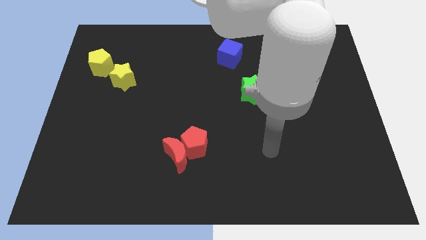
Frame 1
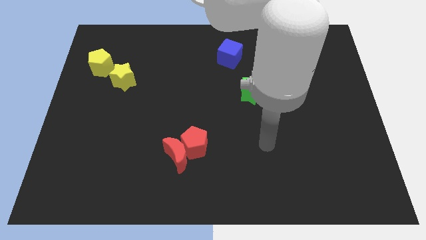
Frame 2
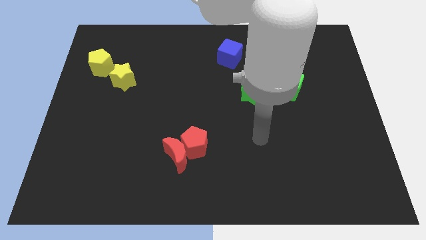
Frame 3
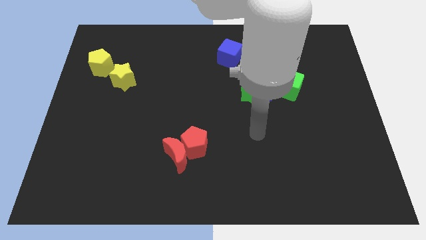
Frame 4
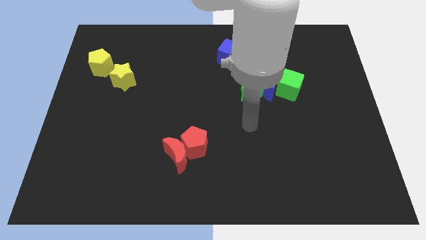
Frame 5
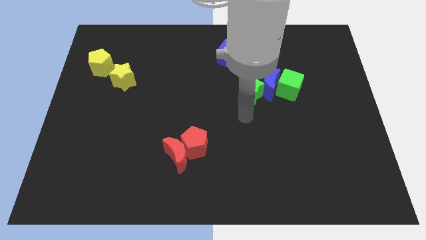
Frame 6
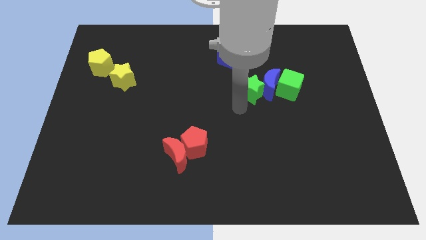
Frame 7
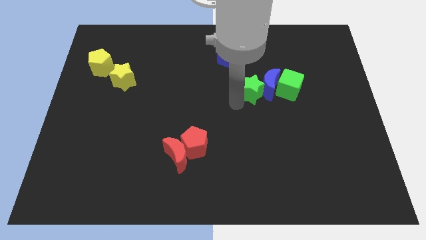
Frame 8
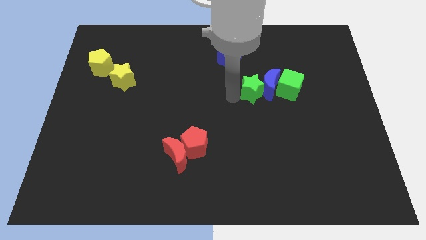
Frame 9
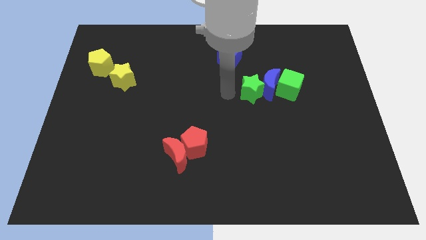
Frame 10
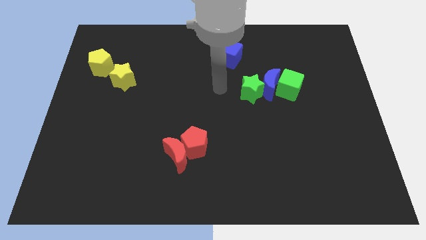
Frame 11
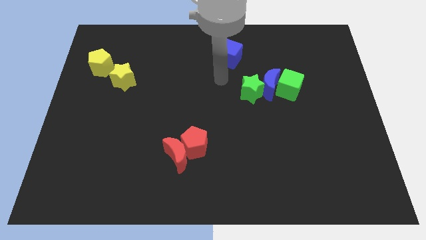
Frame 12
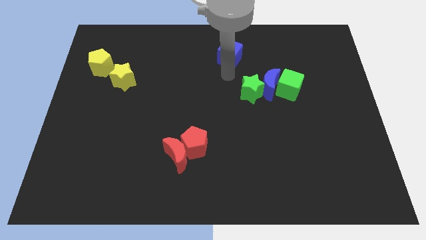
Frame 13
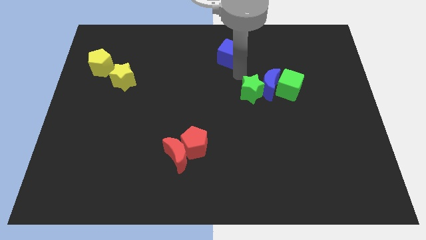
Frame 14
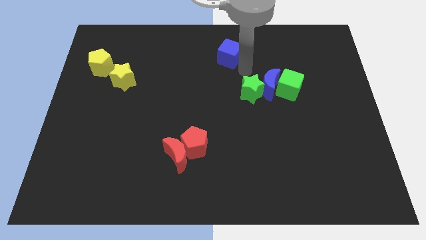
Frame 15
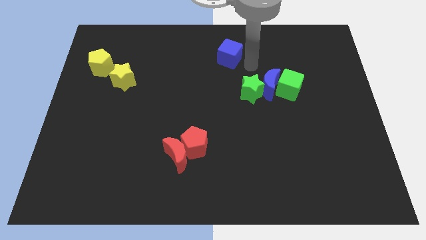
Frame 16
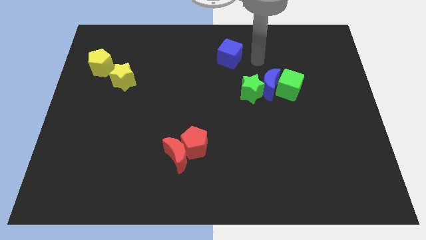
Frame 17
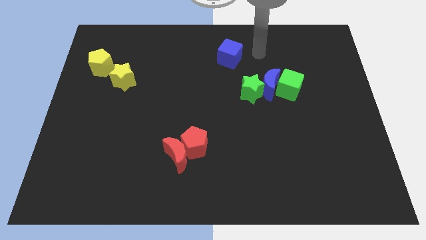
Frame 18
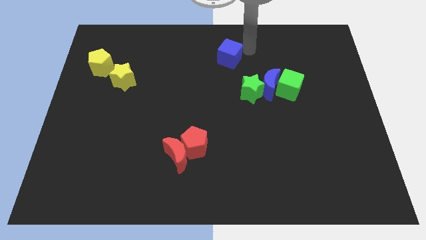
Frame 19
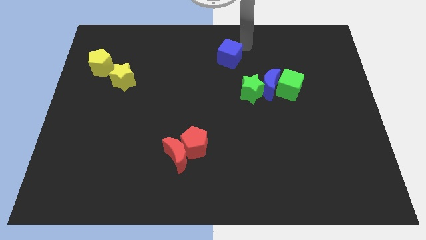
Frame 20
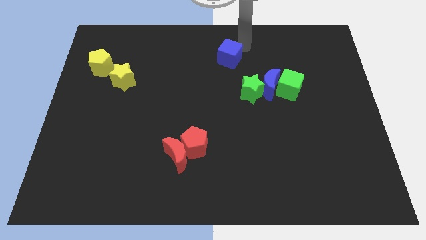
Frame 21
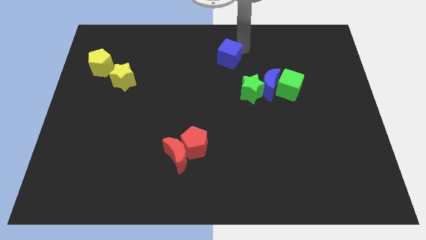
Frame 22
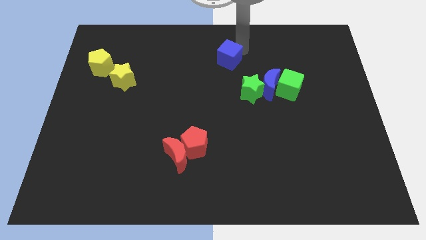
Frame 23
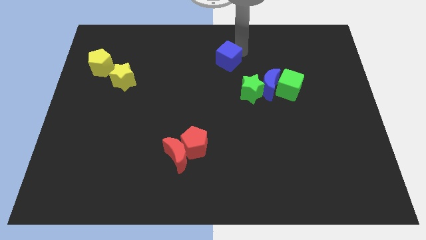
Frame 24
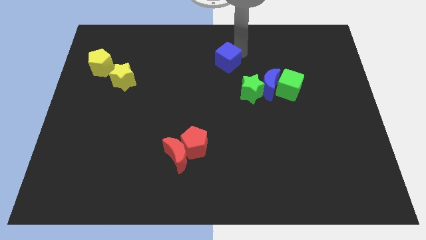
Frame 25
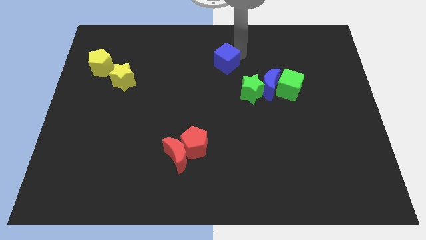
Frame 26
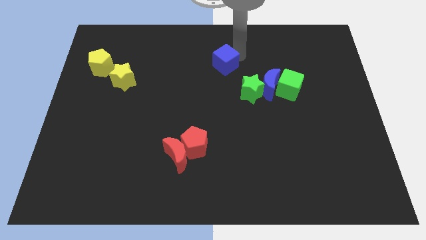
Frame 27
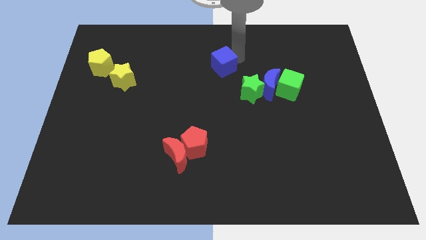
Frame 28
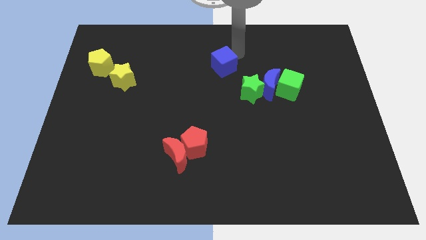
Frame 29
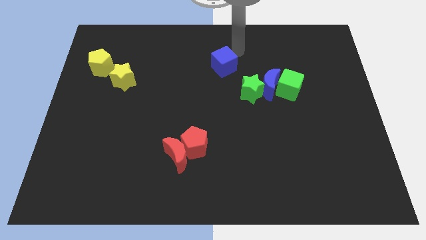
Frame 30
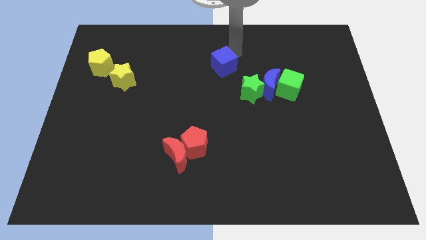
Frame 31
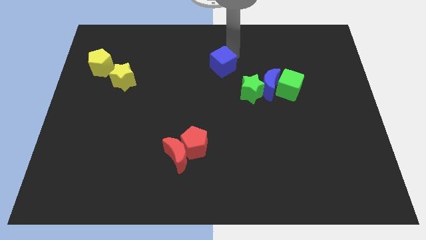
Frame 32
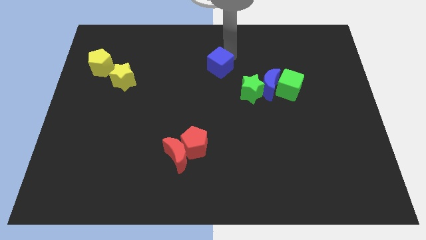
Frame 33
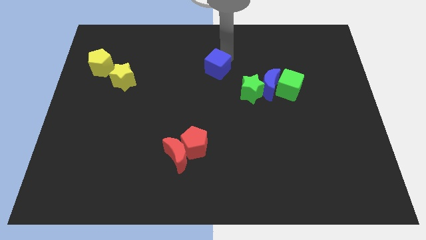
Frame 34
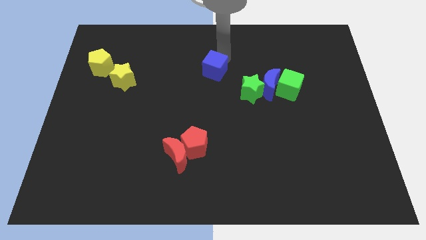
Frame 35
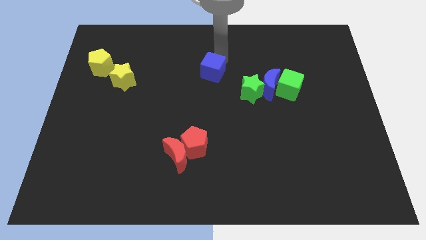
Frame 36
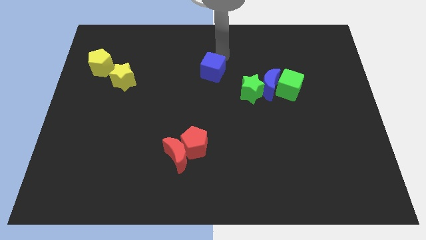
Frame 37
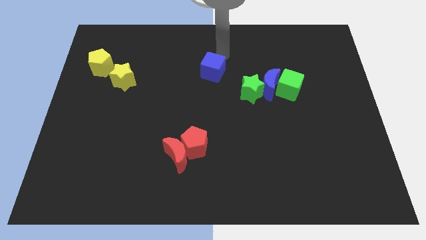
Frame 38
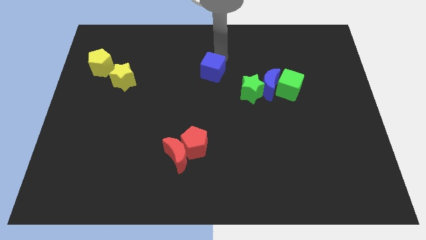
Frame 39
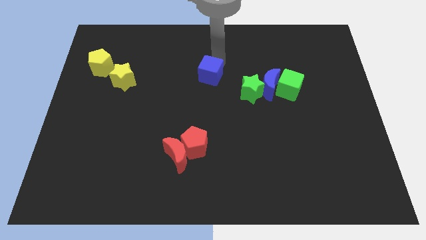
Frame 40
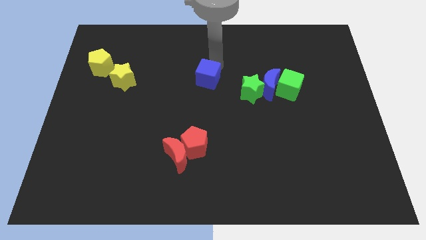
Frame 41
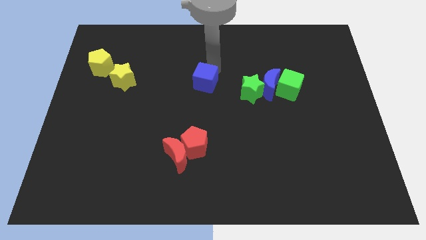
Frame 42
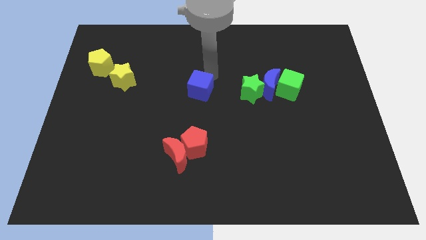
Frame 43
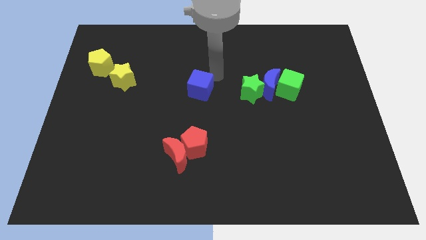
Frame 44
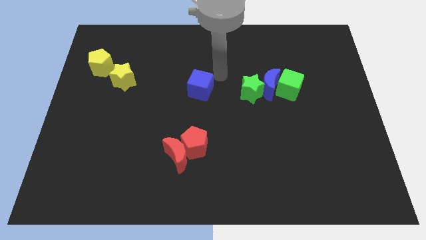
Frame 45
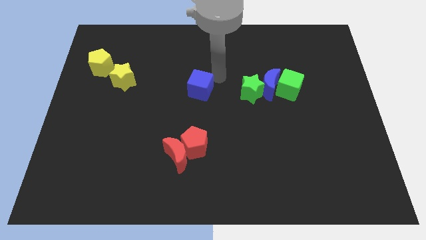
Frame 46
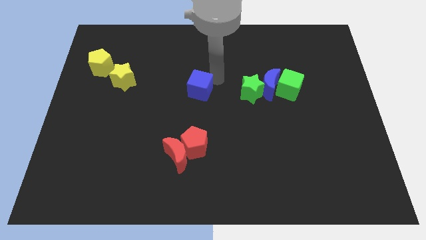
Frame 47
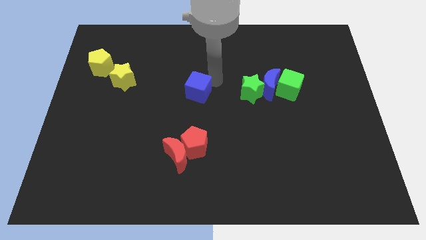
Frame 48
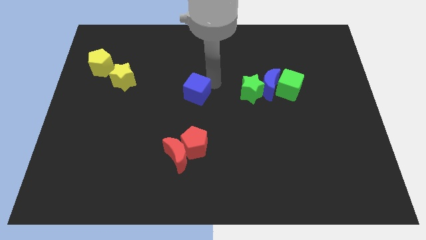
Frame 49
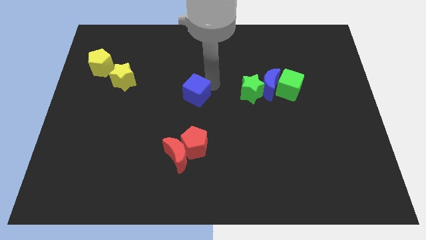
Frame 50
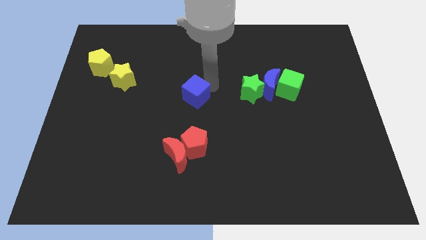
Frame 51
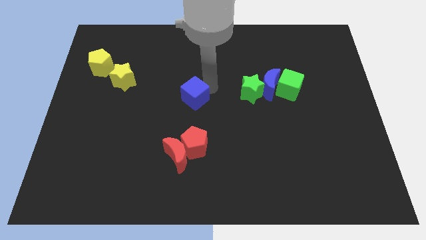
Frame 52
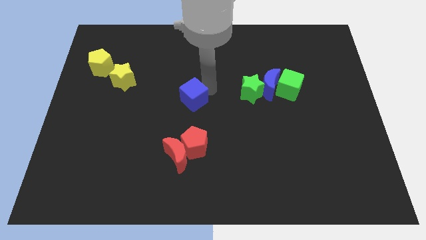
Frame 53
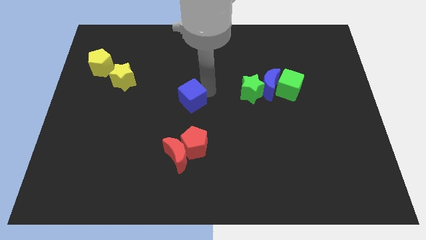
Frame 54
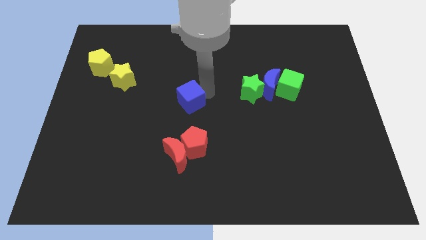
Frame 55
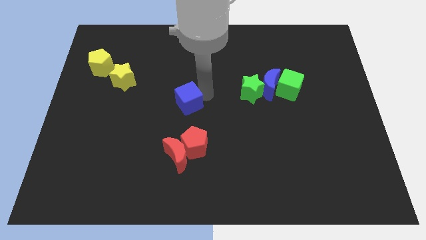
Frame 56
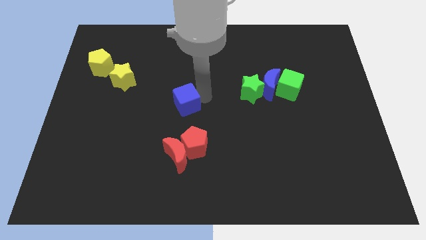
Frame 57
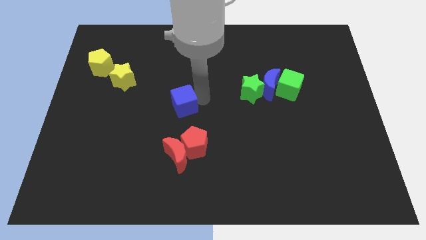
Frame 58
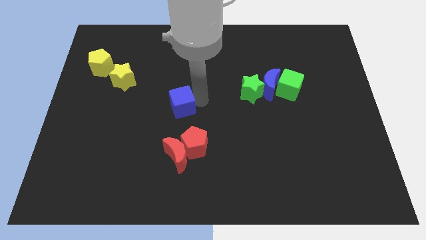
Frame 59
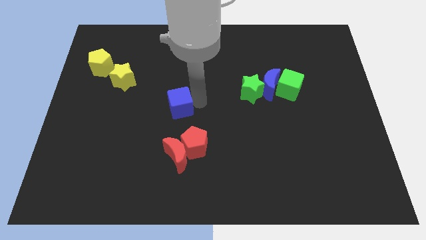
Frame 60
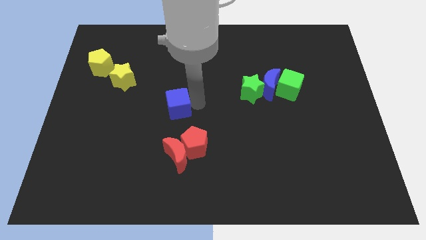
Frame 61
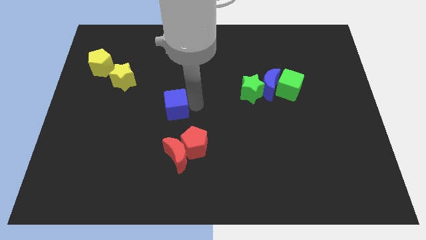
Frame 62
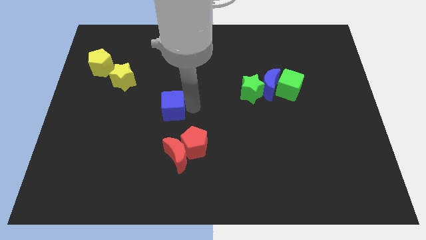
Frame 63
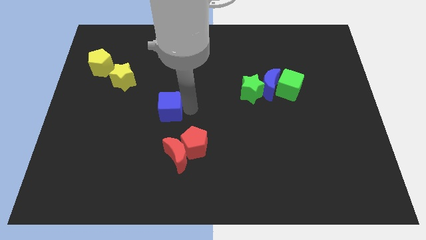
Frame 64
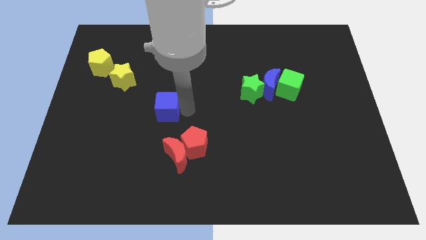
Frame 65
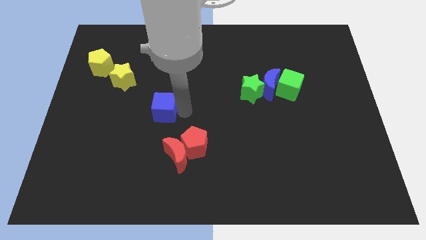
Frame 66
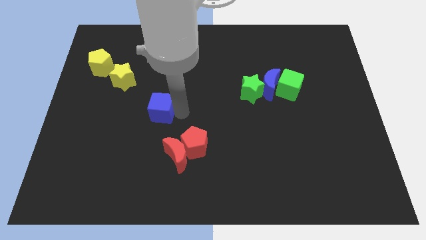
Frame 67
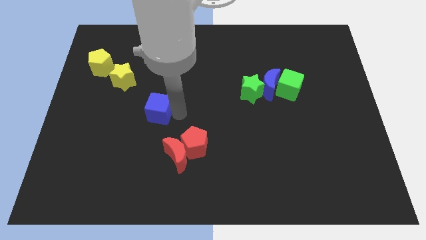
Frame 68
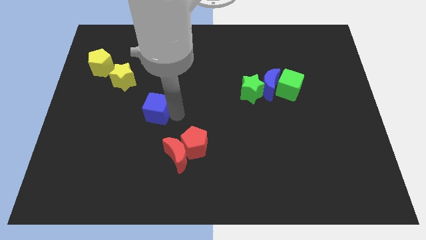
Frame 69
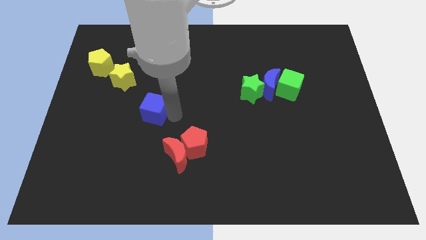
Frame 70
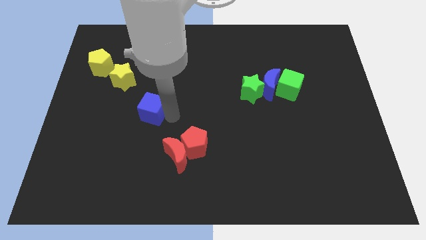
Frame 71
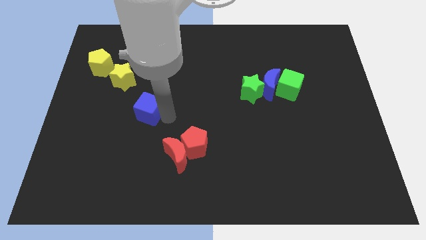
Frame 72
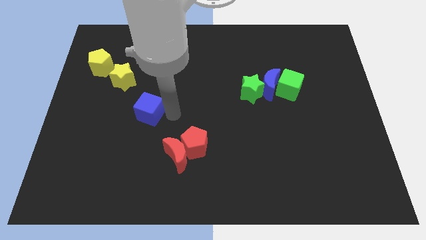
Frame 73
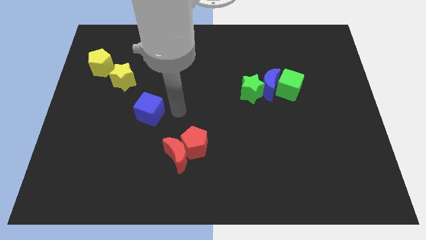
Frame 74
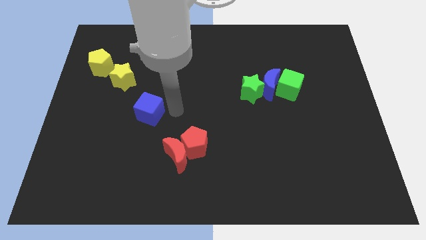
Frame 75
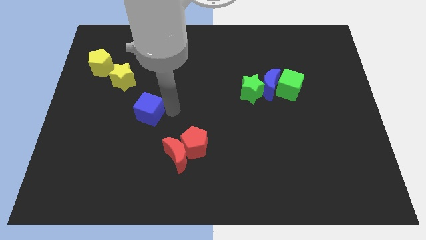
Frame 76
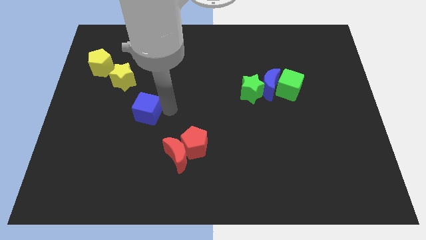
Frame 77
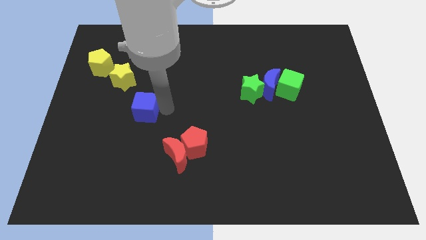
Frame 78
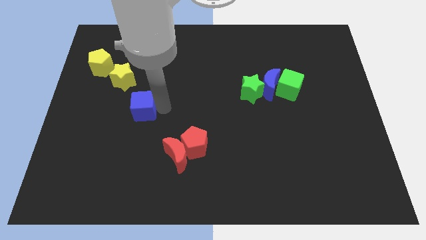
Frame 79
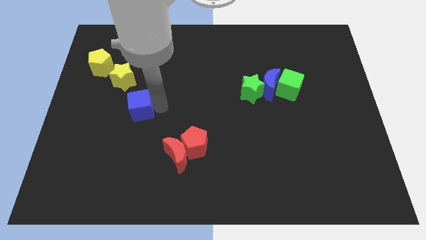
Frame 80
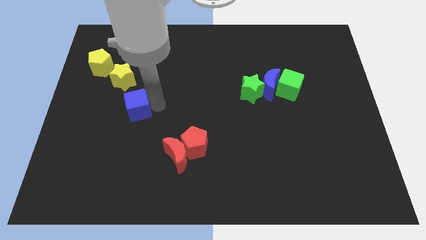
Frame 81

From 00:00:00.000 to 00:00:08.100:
push the blue cube to the bottom of the yellow star

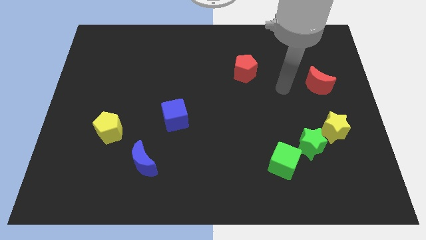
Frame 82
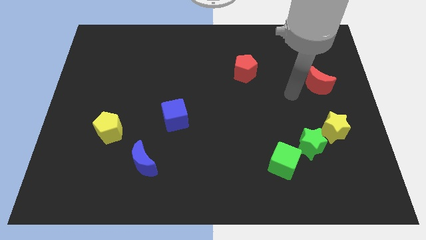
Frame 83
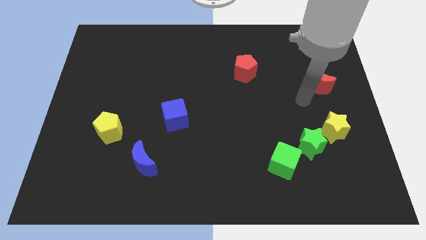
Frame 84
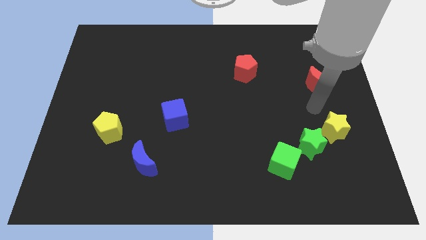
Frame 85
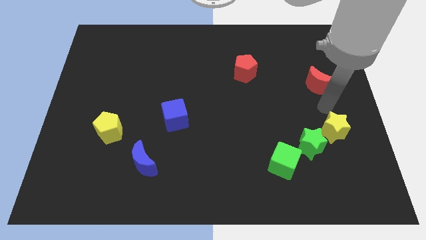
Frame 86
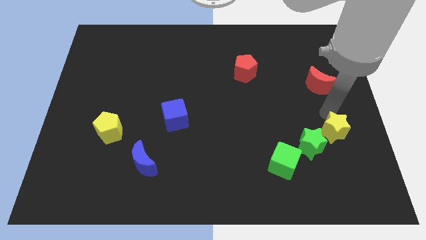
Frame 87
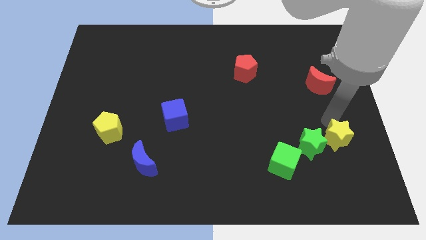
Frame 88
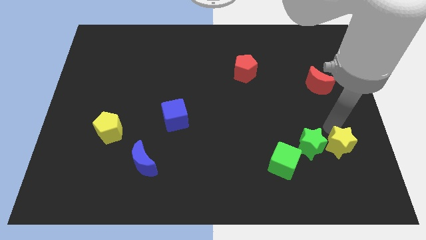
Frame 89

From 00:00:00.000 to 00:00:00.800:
slide the yellow star to the bottom right of the green star
